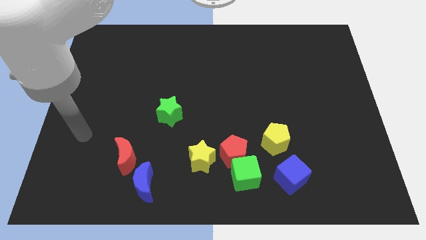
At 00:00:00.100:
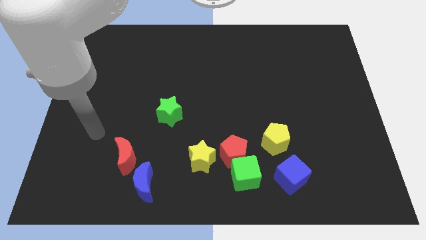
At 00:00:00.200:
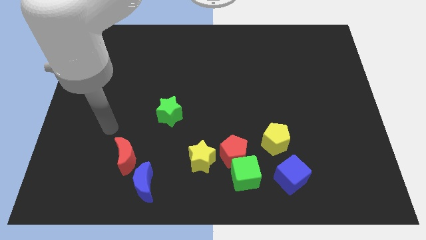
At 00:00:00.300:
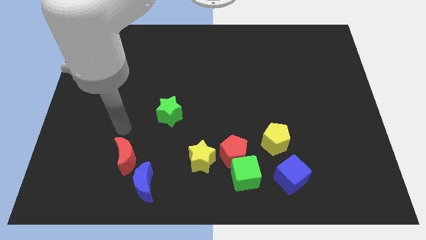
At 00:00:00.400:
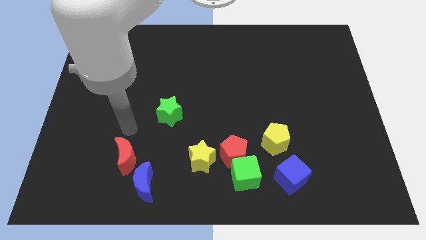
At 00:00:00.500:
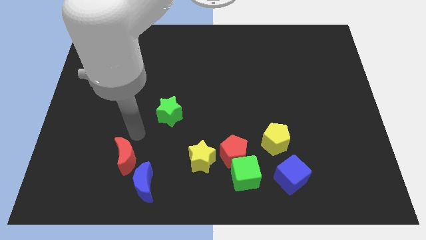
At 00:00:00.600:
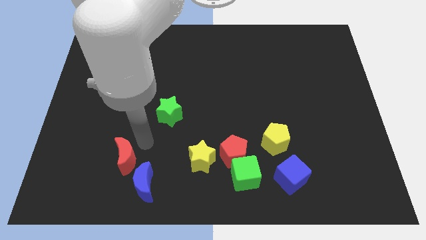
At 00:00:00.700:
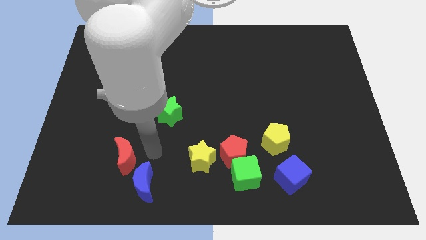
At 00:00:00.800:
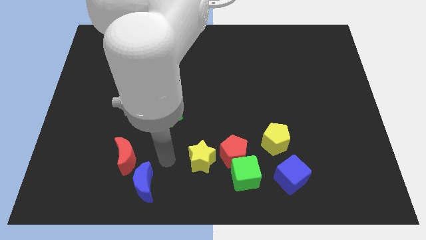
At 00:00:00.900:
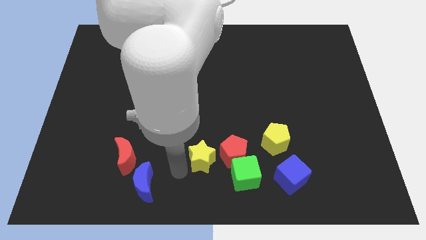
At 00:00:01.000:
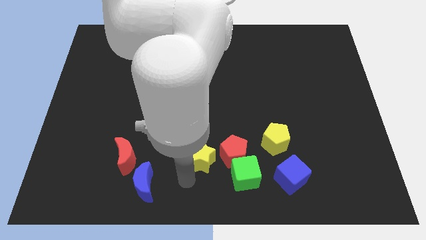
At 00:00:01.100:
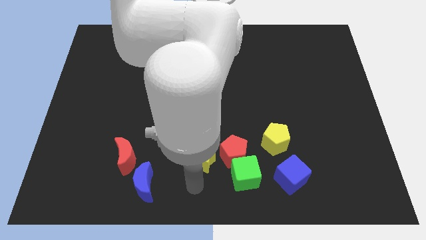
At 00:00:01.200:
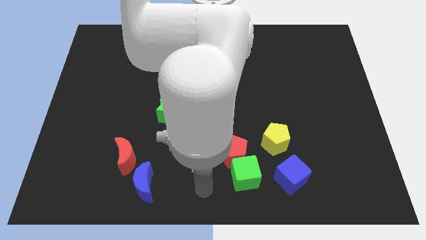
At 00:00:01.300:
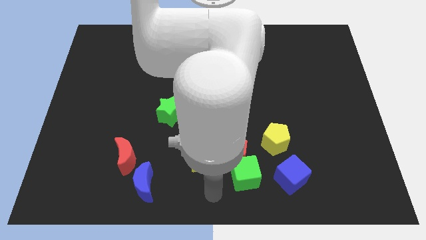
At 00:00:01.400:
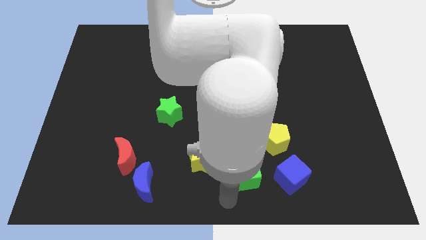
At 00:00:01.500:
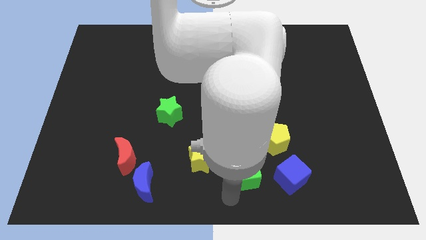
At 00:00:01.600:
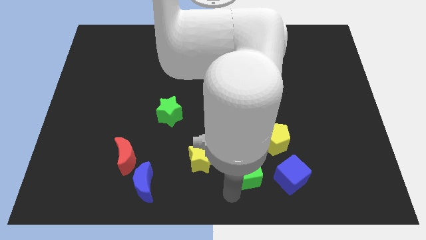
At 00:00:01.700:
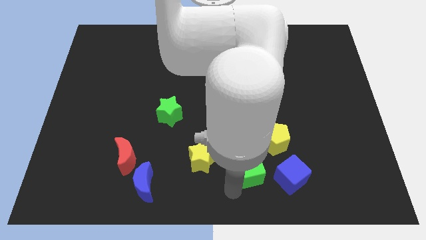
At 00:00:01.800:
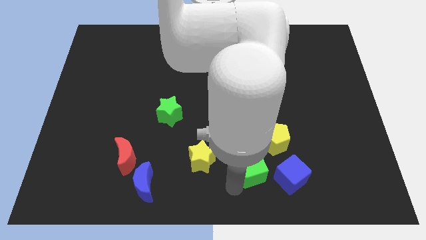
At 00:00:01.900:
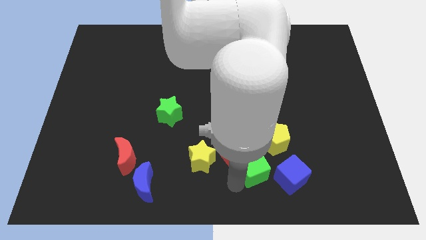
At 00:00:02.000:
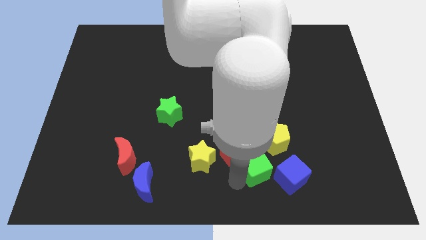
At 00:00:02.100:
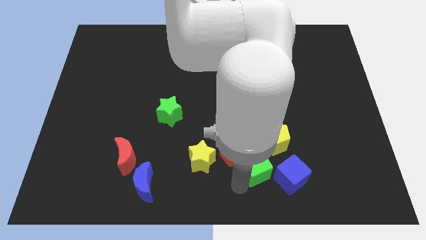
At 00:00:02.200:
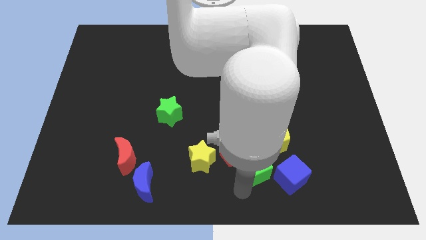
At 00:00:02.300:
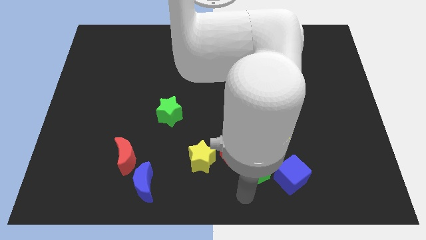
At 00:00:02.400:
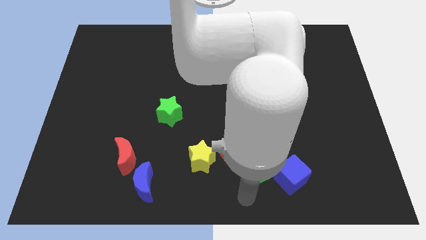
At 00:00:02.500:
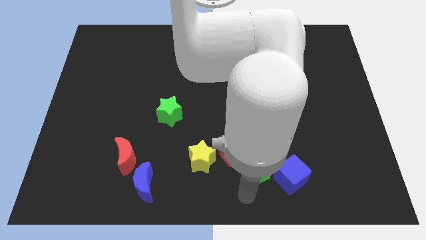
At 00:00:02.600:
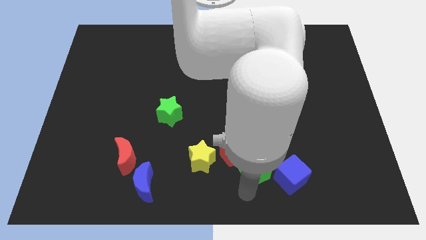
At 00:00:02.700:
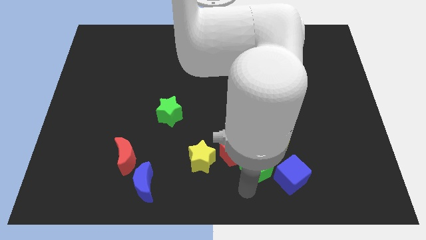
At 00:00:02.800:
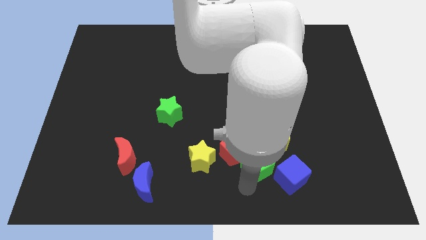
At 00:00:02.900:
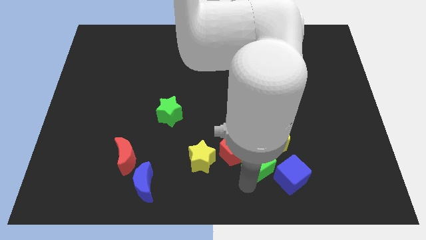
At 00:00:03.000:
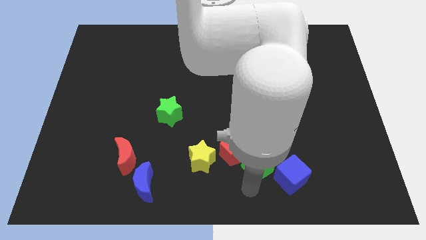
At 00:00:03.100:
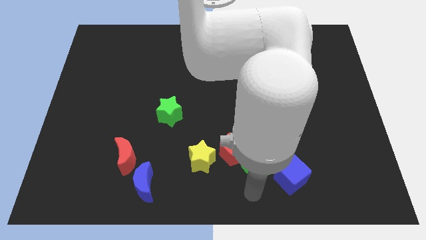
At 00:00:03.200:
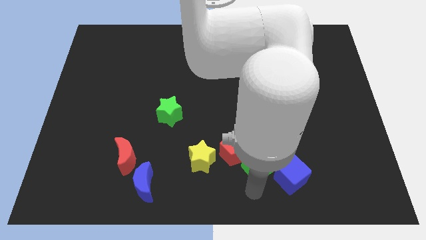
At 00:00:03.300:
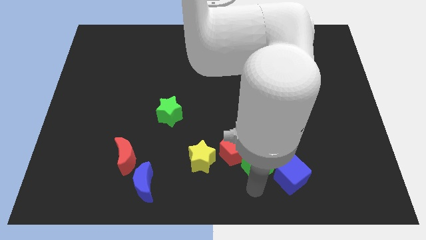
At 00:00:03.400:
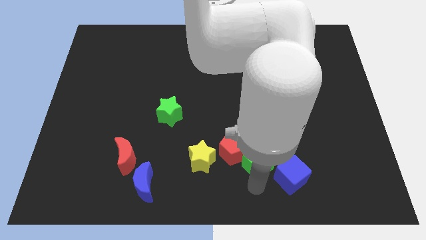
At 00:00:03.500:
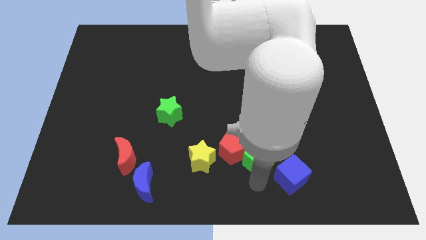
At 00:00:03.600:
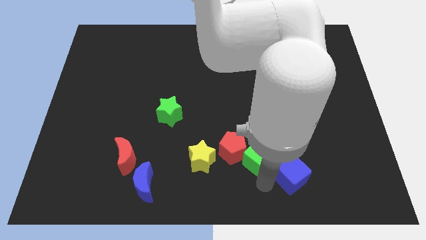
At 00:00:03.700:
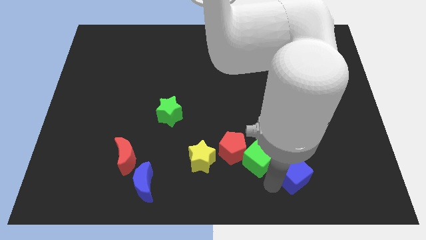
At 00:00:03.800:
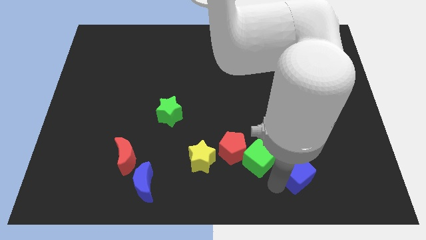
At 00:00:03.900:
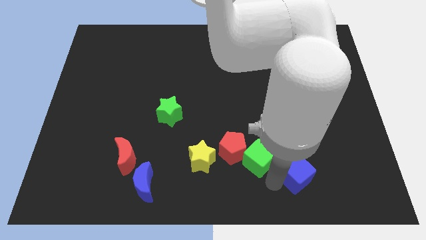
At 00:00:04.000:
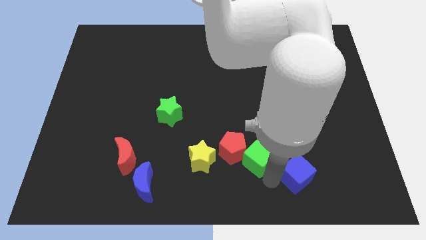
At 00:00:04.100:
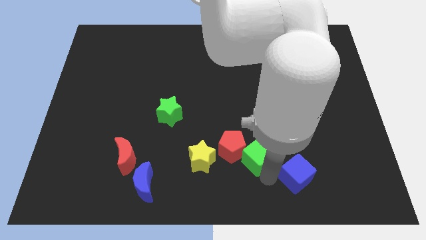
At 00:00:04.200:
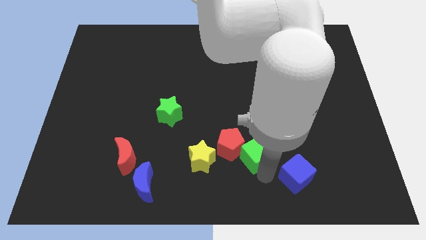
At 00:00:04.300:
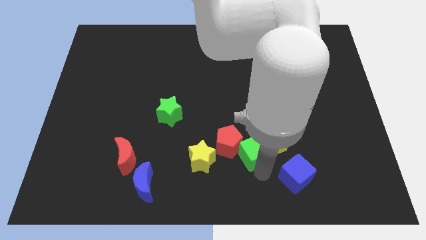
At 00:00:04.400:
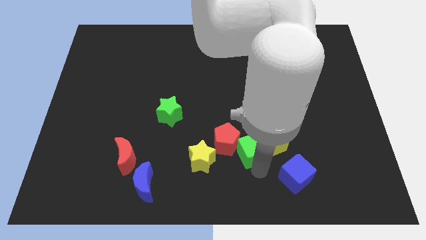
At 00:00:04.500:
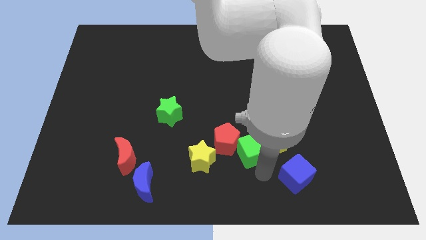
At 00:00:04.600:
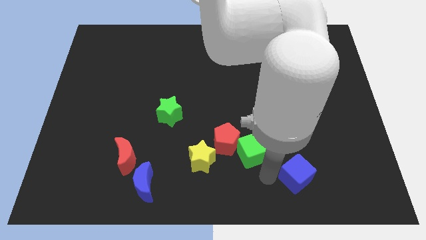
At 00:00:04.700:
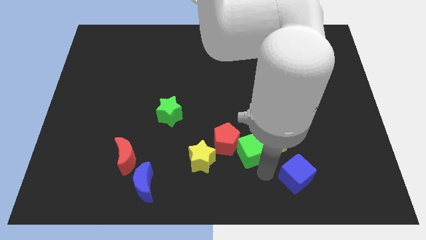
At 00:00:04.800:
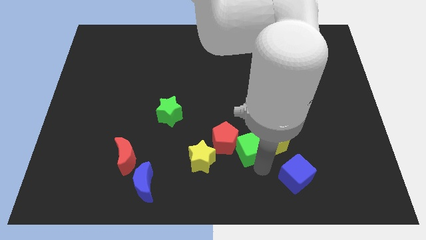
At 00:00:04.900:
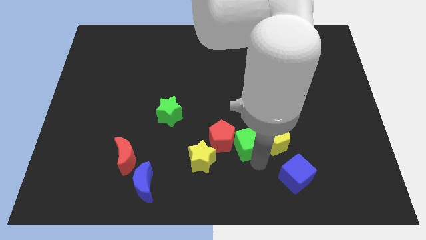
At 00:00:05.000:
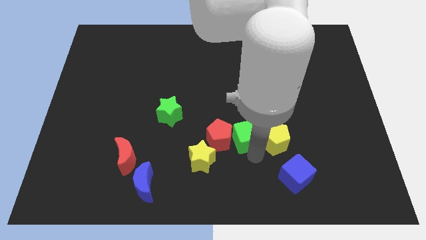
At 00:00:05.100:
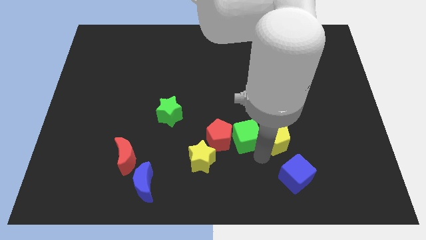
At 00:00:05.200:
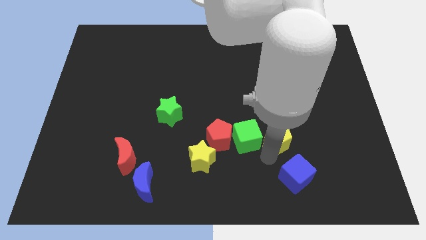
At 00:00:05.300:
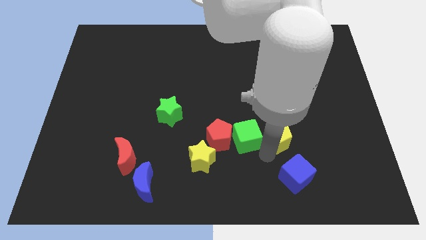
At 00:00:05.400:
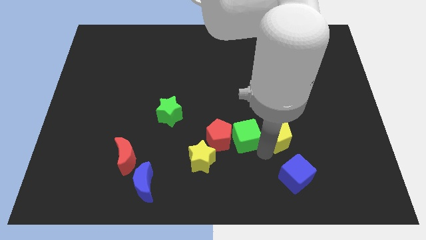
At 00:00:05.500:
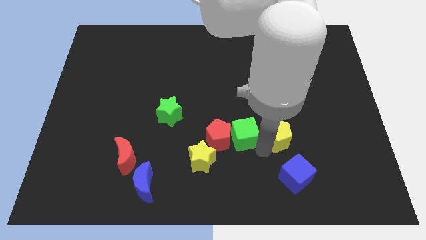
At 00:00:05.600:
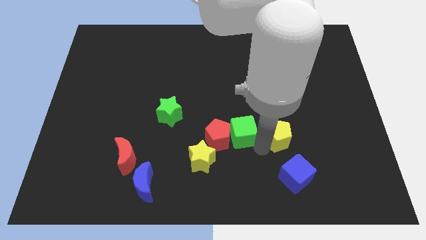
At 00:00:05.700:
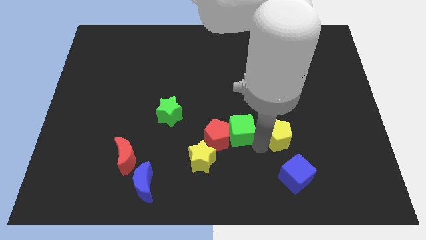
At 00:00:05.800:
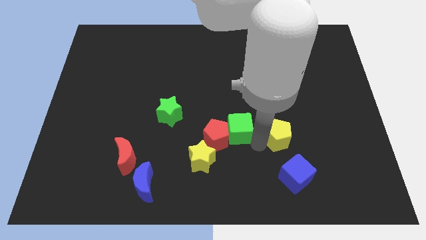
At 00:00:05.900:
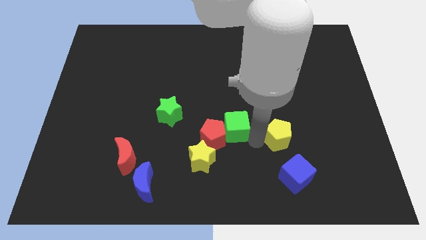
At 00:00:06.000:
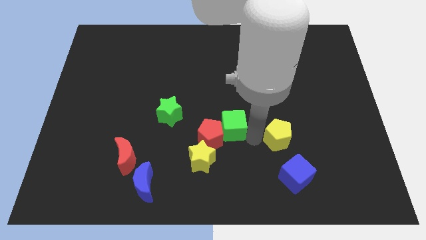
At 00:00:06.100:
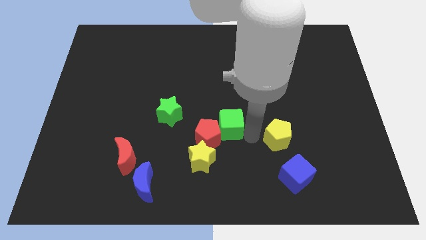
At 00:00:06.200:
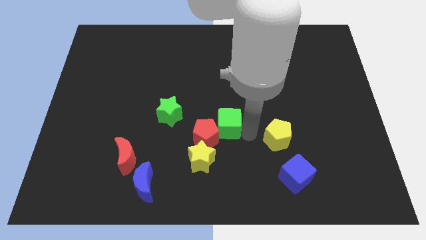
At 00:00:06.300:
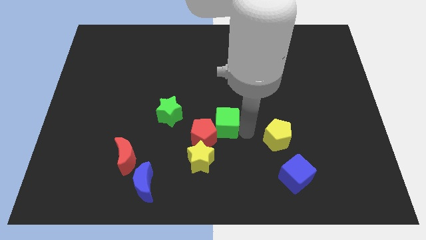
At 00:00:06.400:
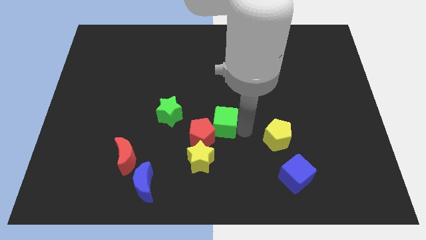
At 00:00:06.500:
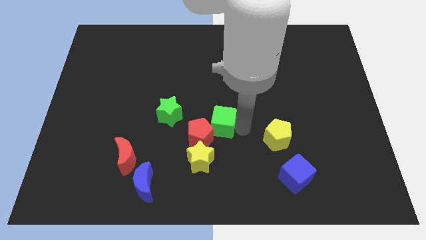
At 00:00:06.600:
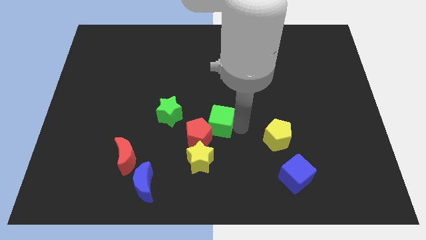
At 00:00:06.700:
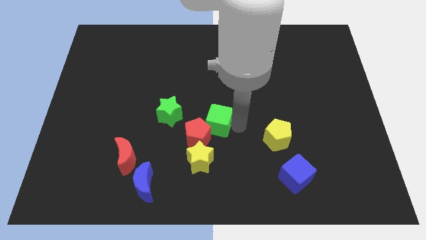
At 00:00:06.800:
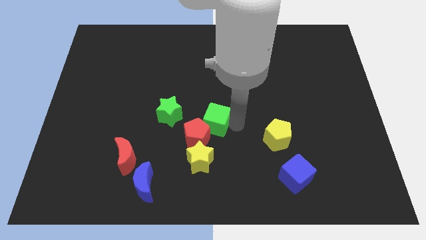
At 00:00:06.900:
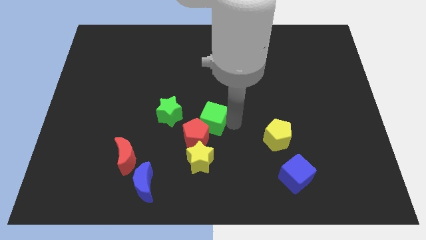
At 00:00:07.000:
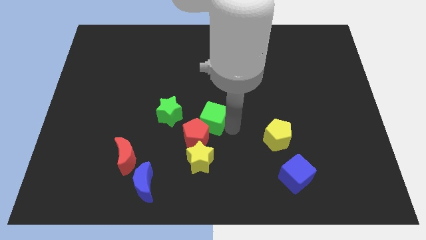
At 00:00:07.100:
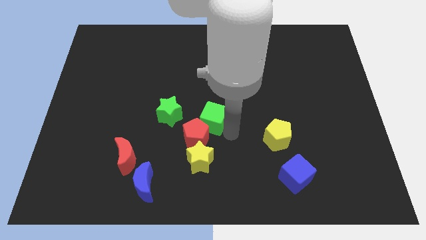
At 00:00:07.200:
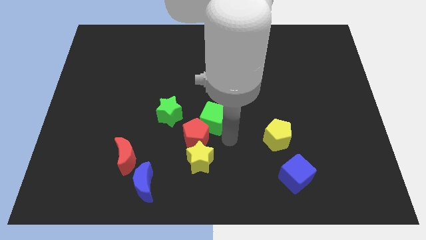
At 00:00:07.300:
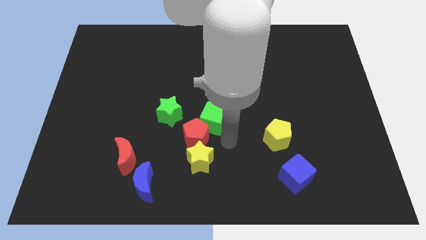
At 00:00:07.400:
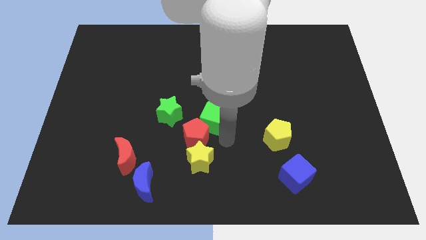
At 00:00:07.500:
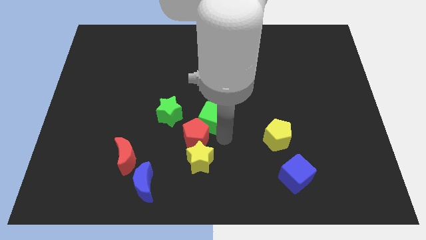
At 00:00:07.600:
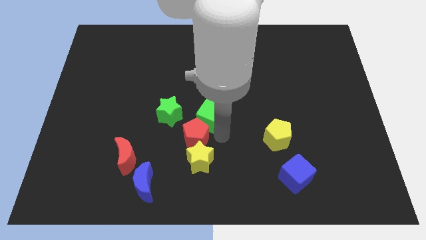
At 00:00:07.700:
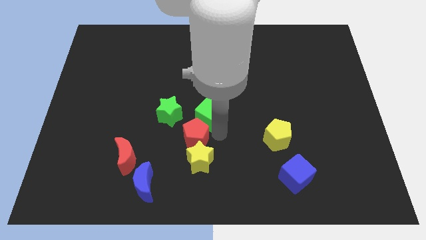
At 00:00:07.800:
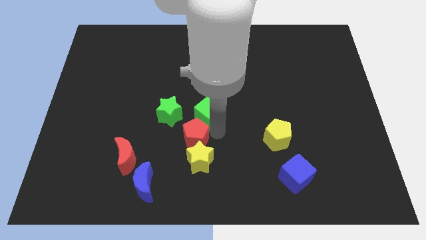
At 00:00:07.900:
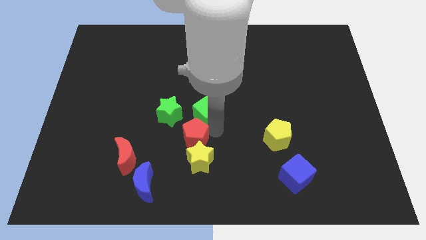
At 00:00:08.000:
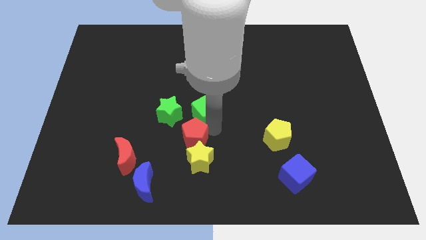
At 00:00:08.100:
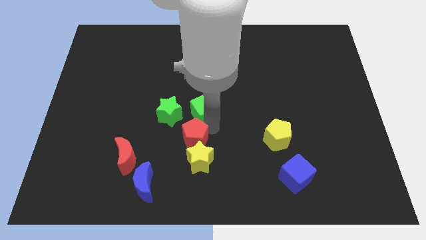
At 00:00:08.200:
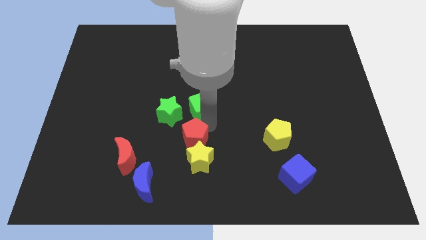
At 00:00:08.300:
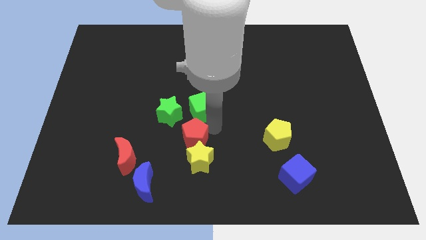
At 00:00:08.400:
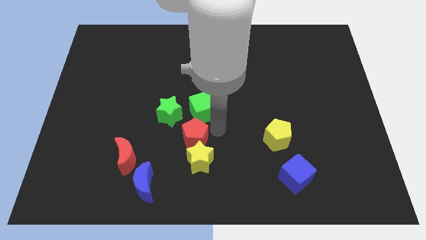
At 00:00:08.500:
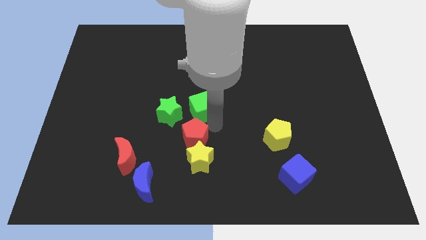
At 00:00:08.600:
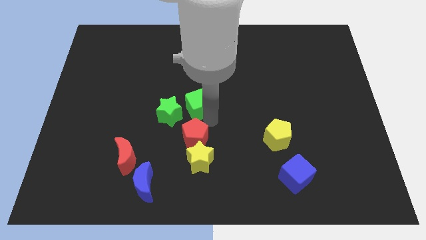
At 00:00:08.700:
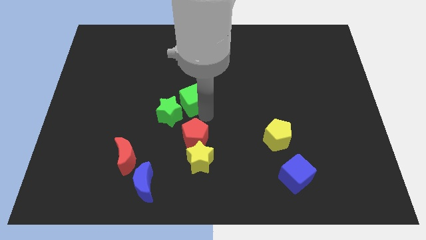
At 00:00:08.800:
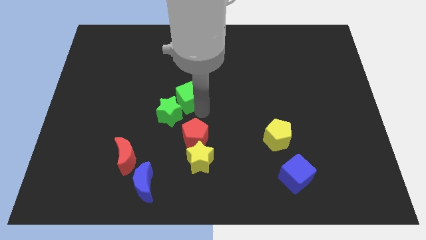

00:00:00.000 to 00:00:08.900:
move the green cube to the top of the green star
